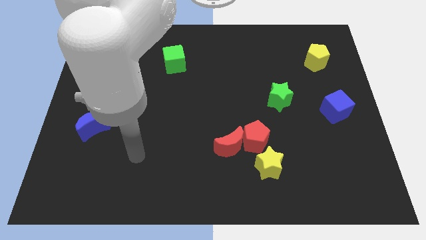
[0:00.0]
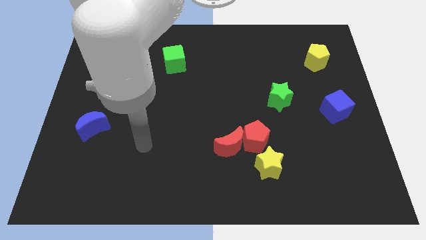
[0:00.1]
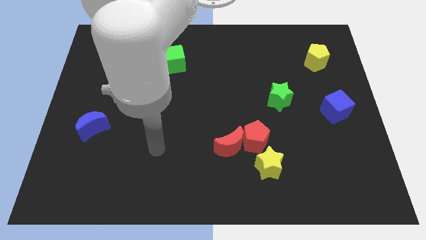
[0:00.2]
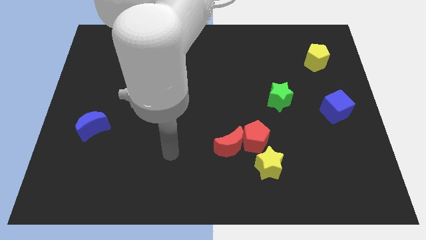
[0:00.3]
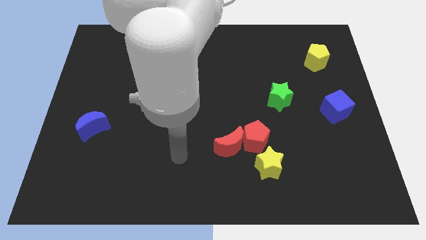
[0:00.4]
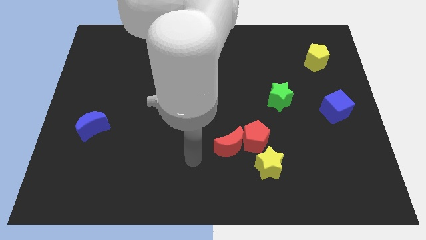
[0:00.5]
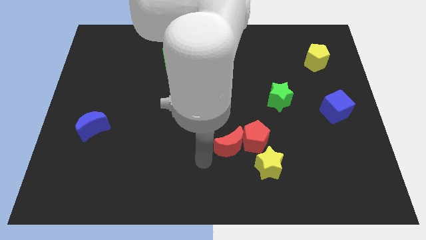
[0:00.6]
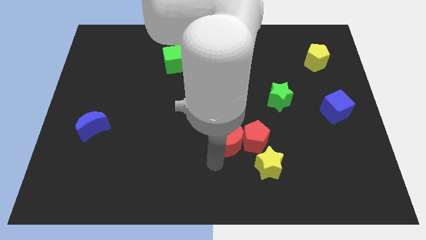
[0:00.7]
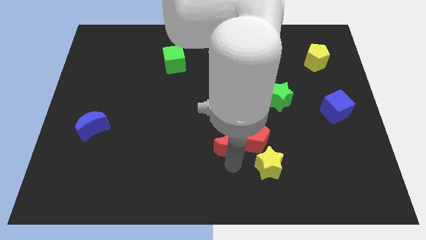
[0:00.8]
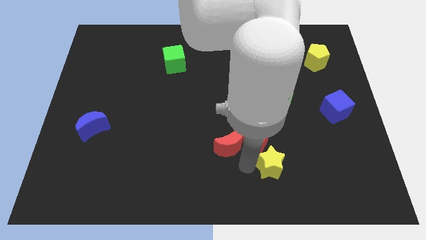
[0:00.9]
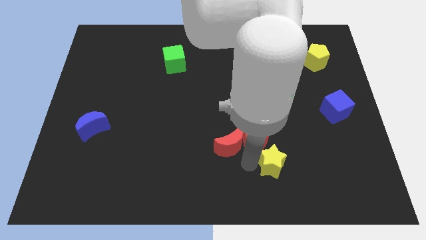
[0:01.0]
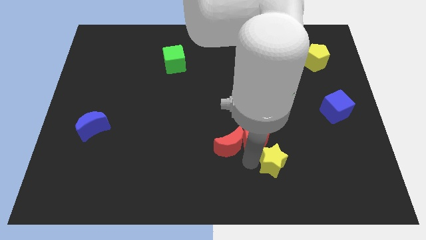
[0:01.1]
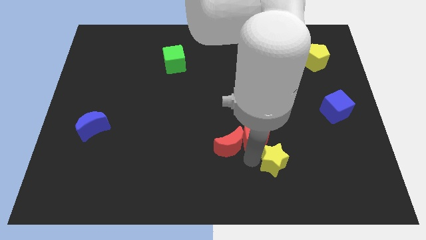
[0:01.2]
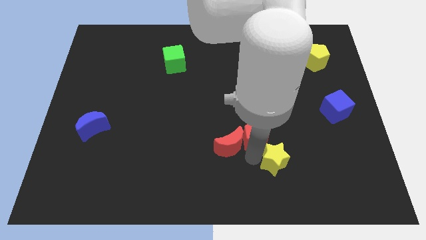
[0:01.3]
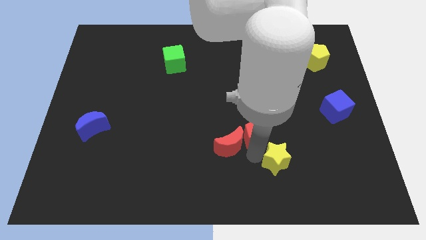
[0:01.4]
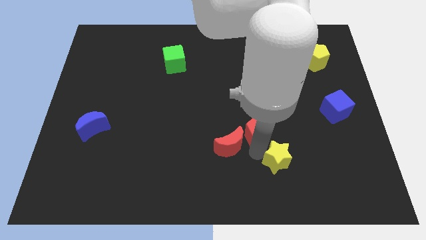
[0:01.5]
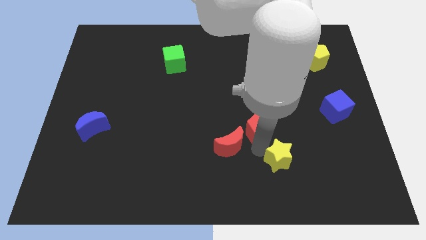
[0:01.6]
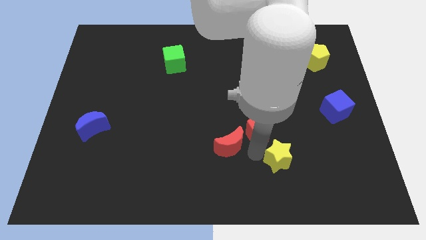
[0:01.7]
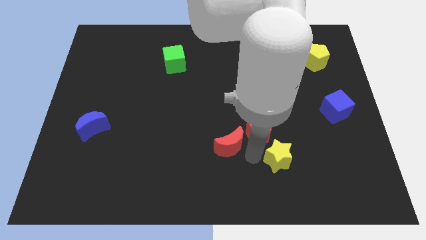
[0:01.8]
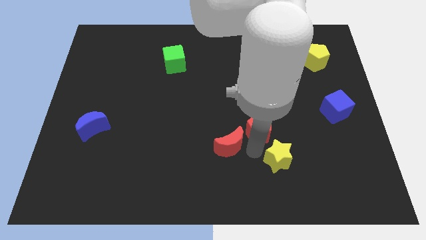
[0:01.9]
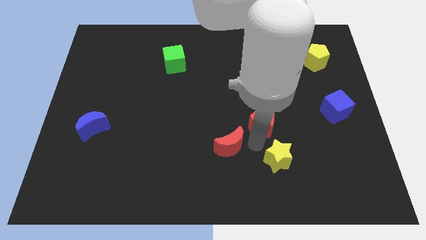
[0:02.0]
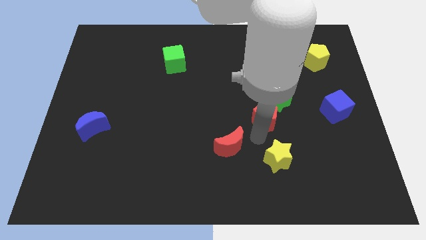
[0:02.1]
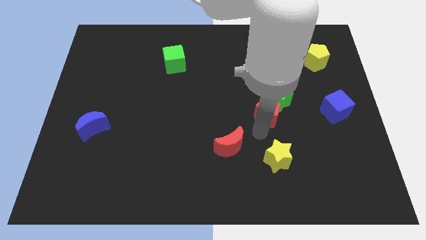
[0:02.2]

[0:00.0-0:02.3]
pull the red pentagon apart from the red moon and yellow star

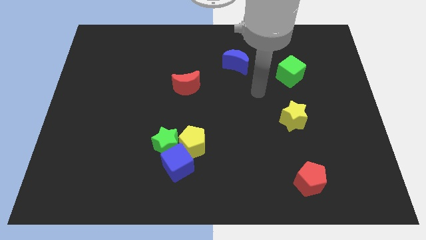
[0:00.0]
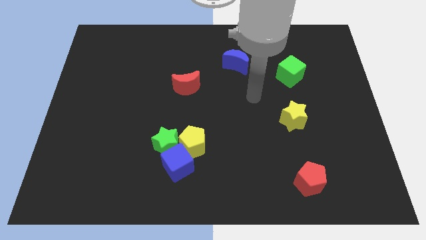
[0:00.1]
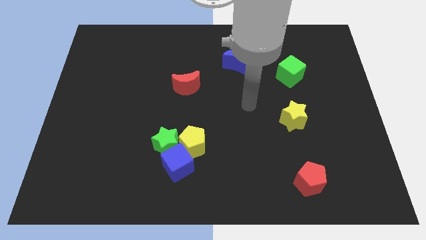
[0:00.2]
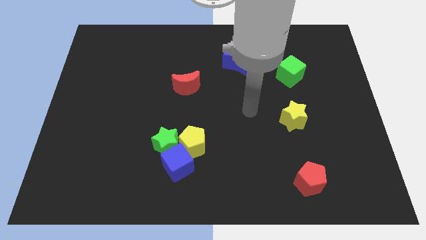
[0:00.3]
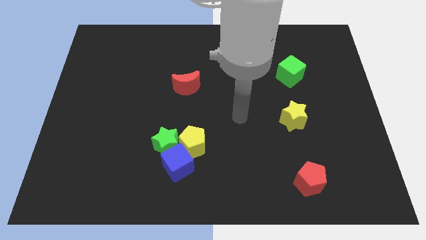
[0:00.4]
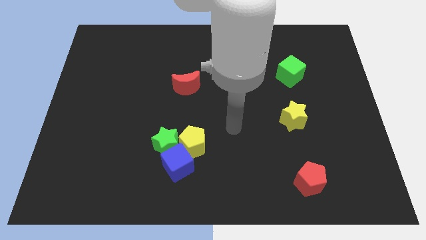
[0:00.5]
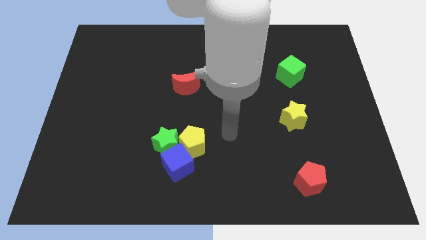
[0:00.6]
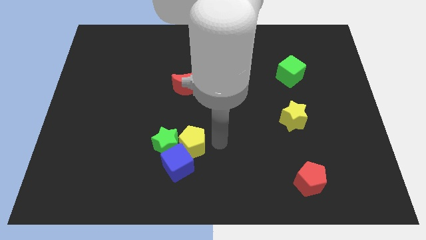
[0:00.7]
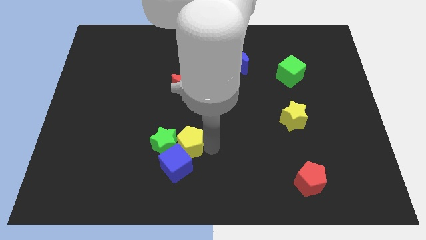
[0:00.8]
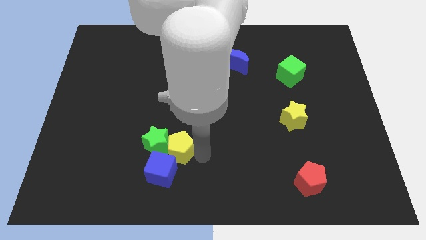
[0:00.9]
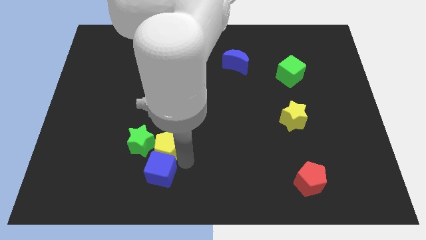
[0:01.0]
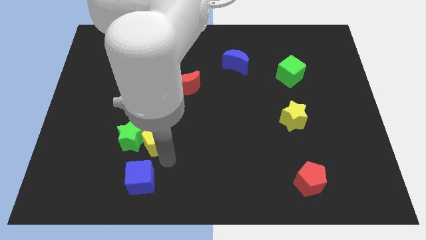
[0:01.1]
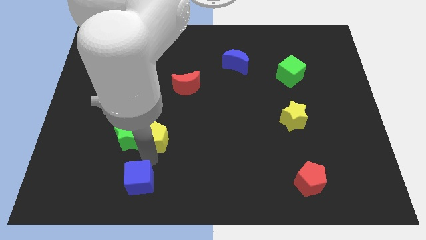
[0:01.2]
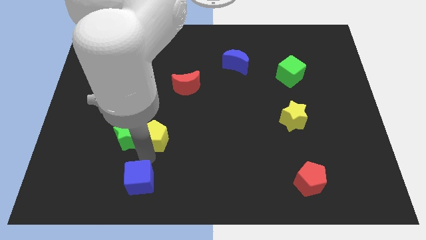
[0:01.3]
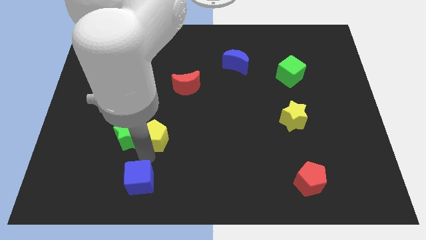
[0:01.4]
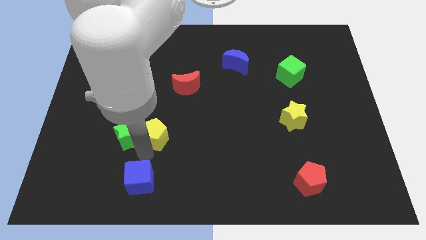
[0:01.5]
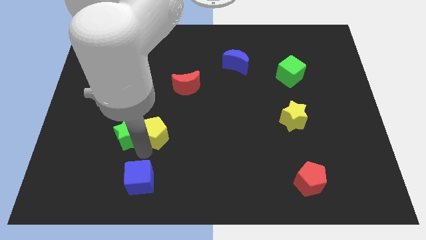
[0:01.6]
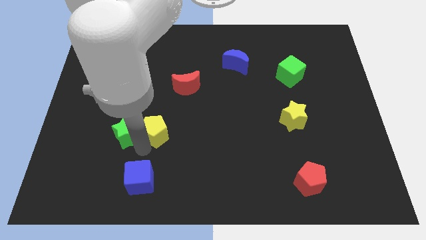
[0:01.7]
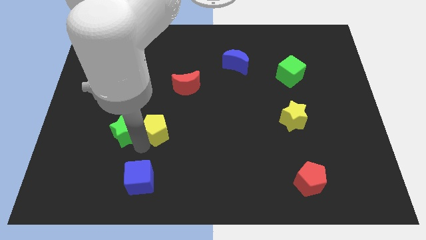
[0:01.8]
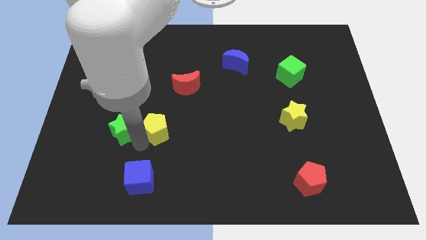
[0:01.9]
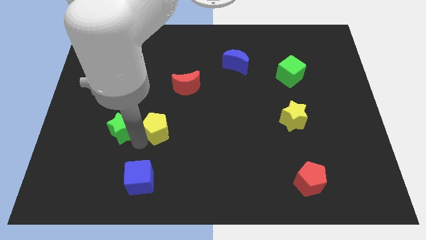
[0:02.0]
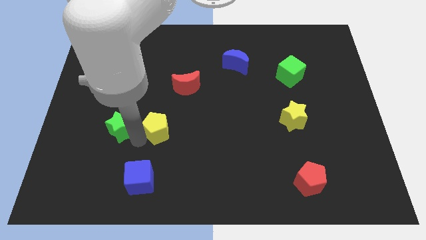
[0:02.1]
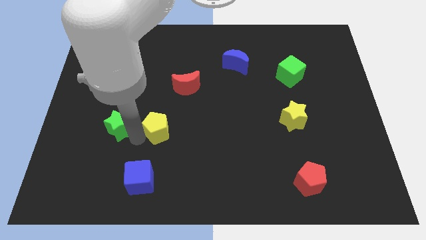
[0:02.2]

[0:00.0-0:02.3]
pull the green star apart from the yellow pentagon and blue cube

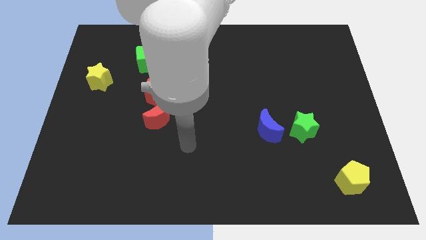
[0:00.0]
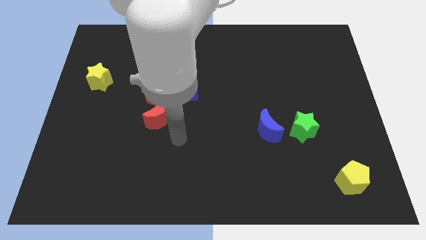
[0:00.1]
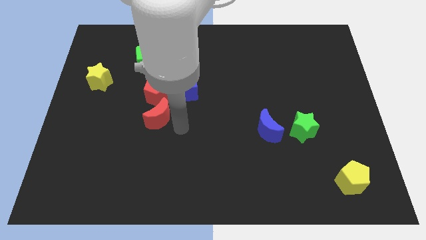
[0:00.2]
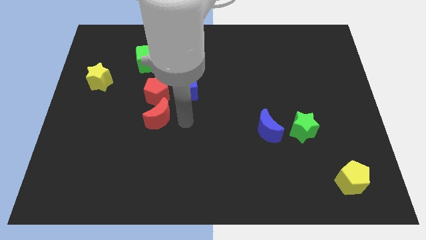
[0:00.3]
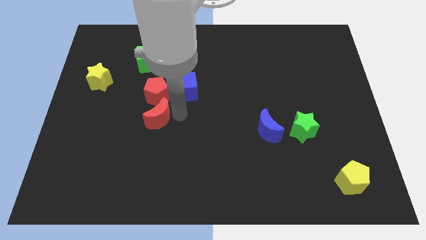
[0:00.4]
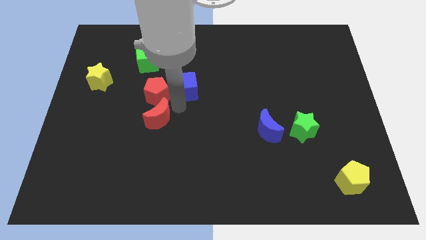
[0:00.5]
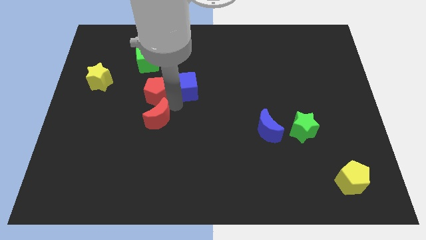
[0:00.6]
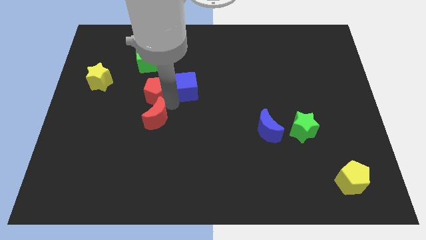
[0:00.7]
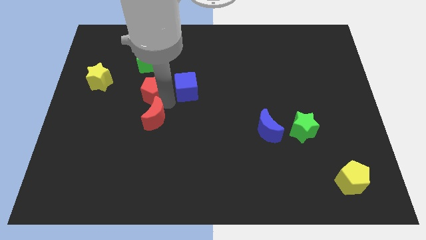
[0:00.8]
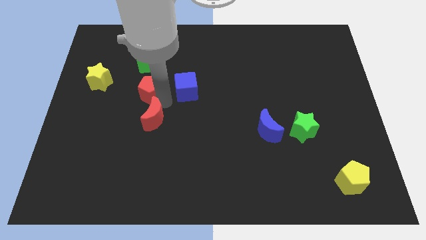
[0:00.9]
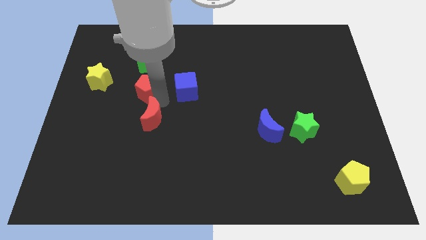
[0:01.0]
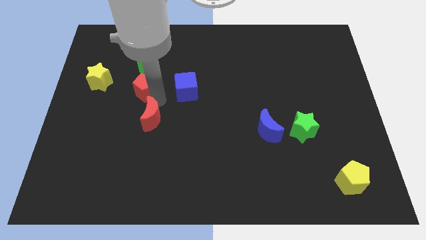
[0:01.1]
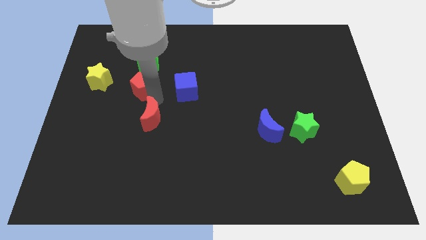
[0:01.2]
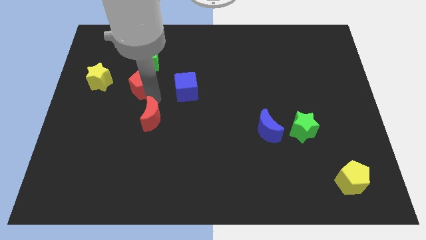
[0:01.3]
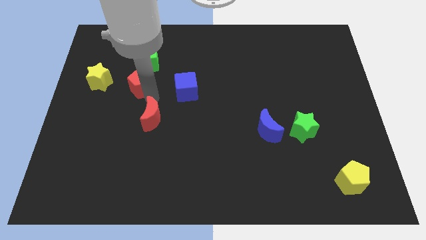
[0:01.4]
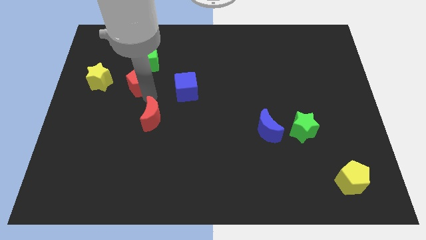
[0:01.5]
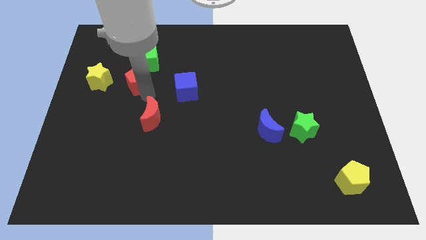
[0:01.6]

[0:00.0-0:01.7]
separate the red pentagon from the blue cube and red moon

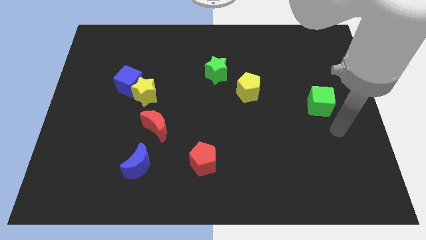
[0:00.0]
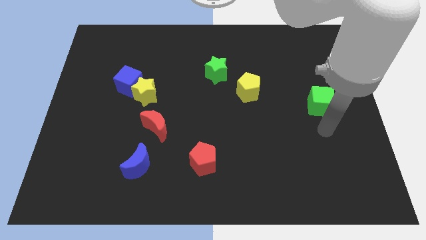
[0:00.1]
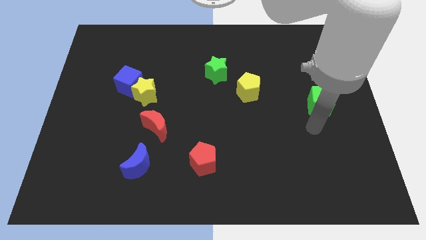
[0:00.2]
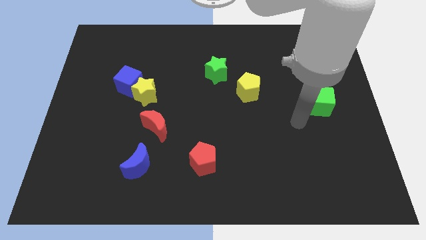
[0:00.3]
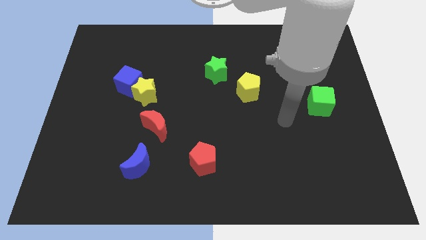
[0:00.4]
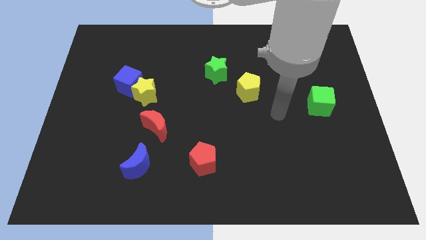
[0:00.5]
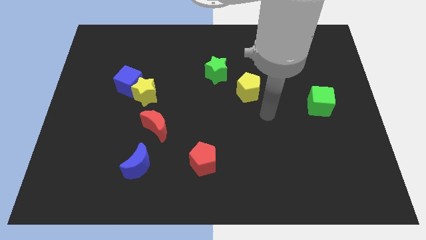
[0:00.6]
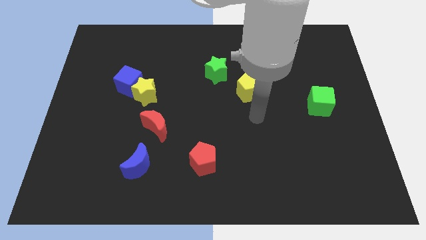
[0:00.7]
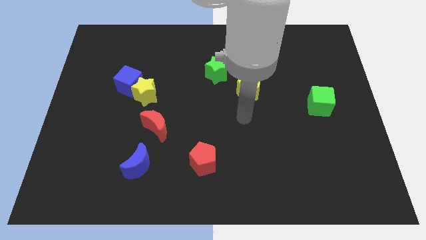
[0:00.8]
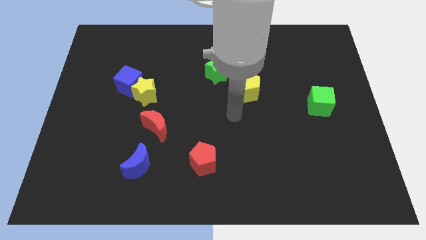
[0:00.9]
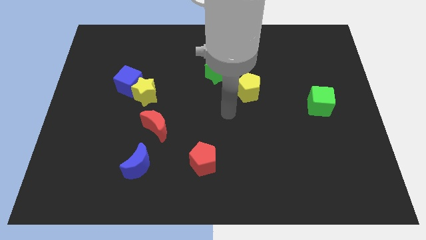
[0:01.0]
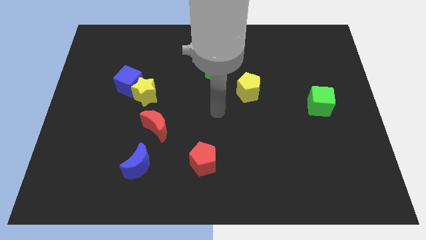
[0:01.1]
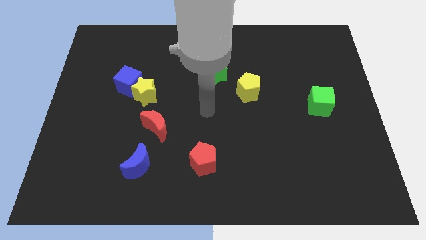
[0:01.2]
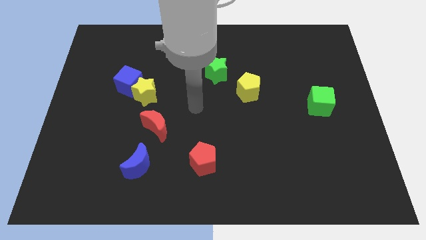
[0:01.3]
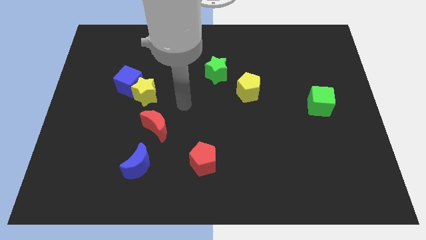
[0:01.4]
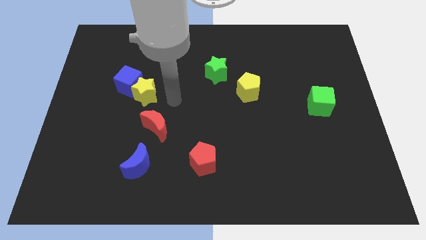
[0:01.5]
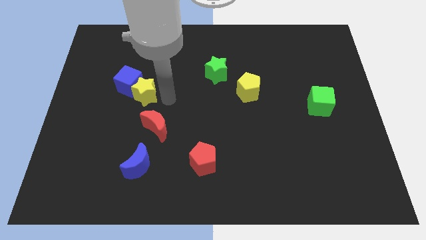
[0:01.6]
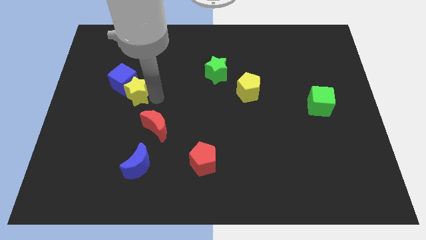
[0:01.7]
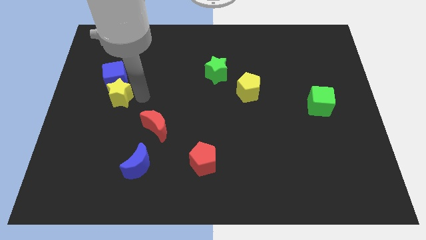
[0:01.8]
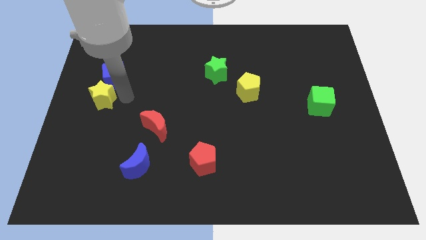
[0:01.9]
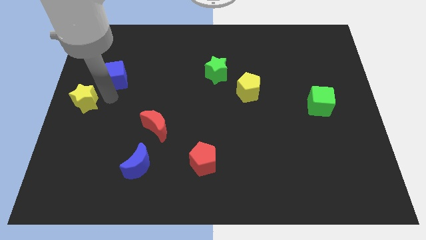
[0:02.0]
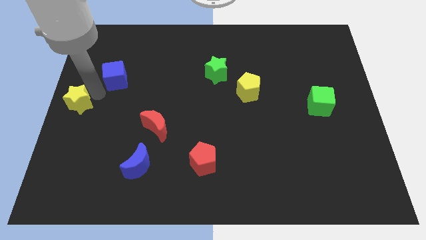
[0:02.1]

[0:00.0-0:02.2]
move the blue cube away from the yellow star

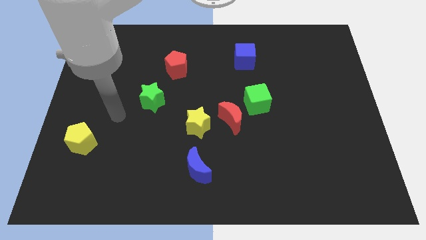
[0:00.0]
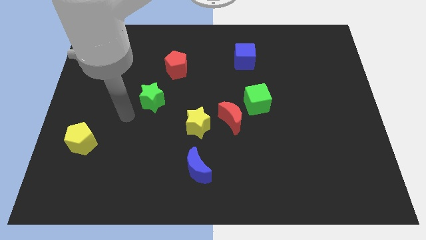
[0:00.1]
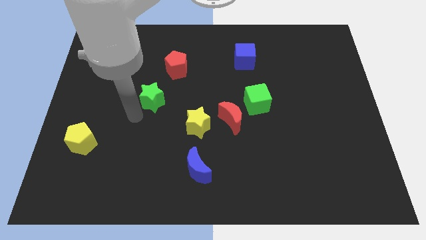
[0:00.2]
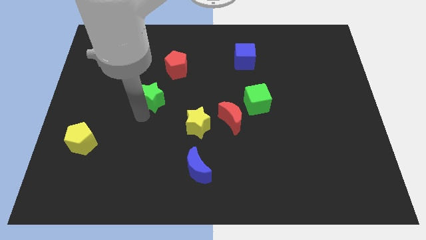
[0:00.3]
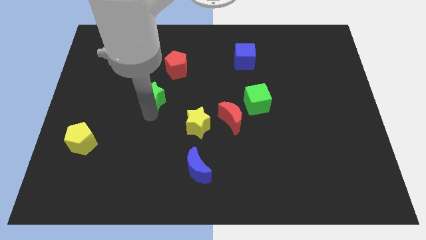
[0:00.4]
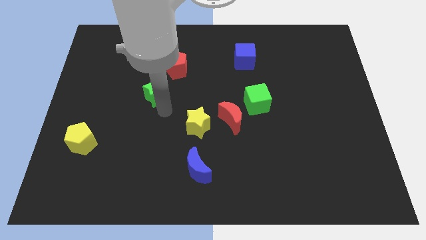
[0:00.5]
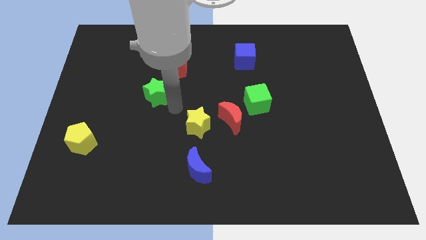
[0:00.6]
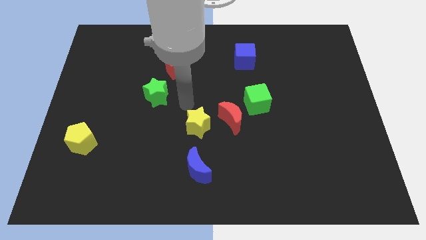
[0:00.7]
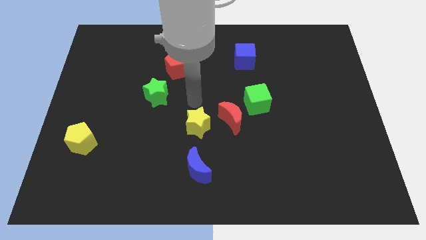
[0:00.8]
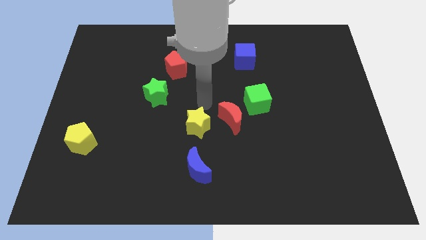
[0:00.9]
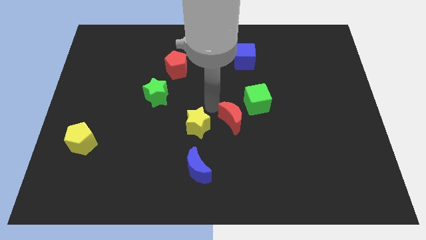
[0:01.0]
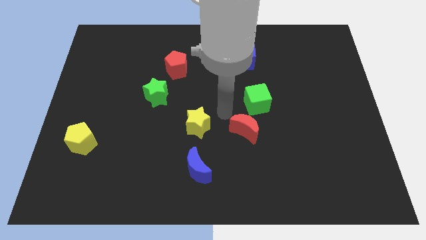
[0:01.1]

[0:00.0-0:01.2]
separate the yellow star from the red moon
